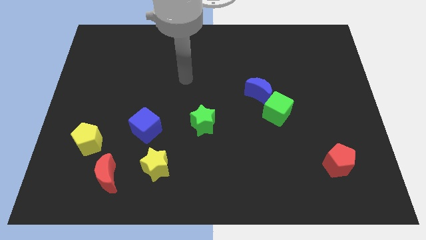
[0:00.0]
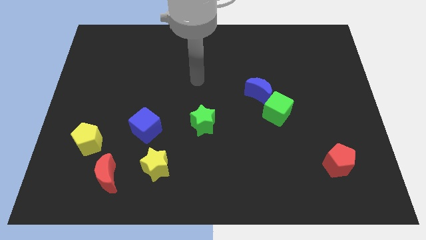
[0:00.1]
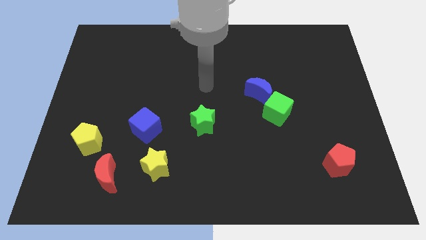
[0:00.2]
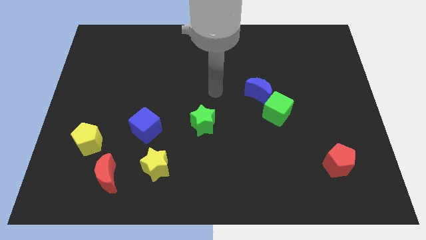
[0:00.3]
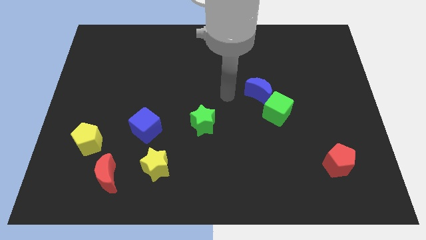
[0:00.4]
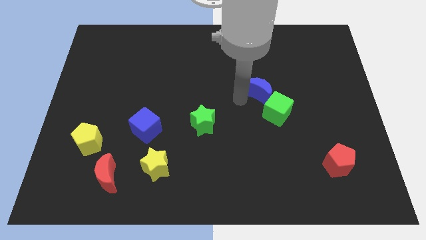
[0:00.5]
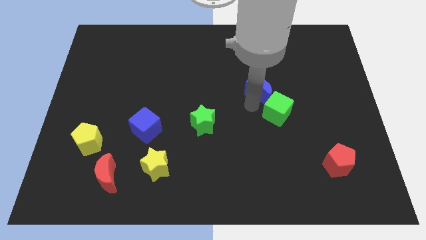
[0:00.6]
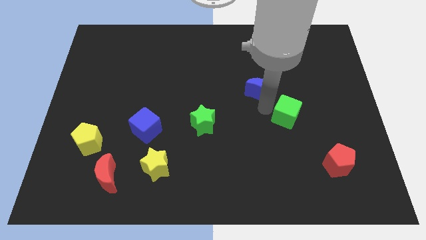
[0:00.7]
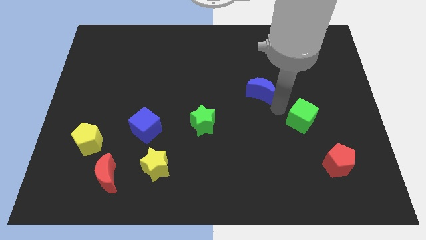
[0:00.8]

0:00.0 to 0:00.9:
separate the blue moon from the green cube

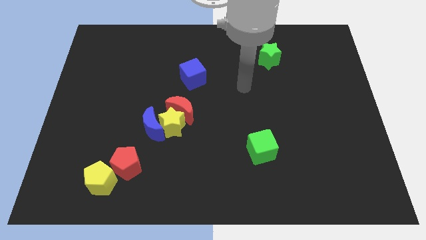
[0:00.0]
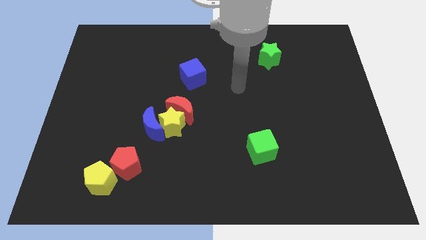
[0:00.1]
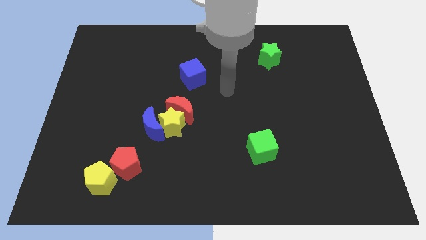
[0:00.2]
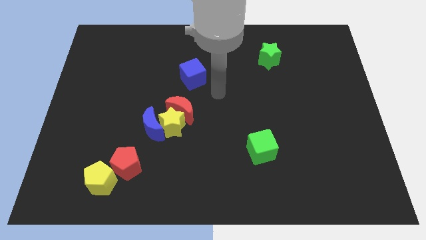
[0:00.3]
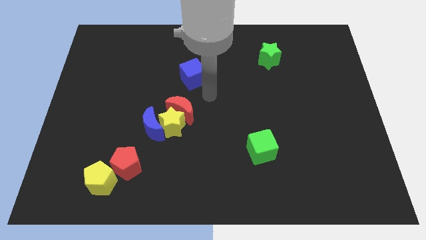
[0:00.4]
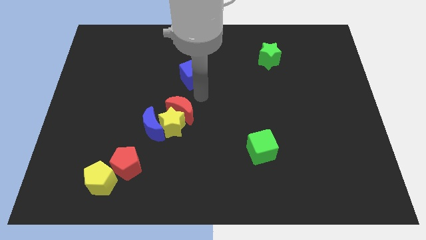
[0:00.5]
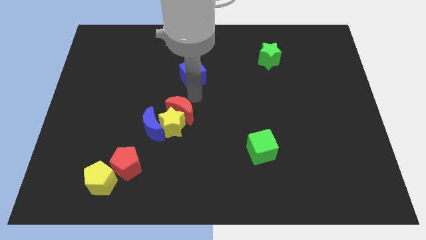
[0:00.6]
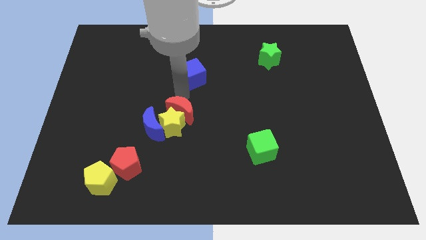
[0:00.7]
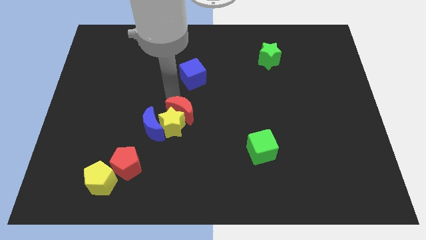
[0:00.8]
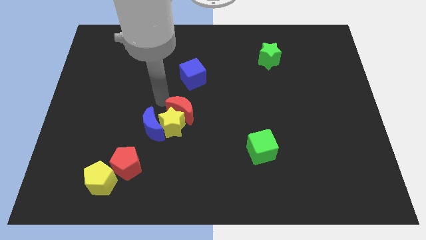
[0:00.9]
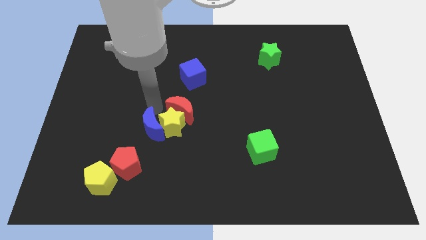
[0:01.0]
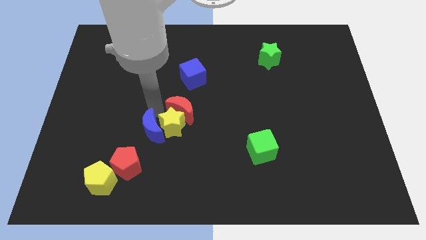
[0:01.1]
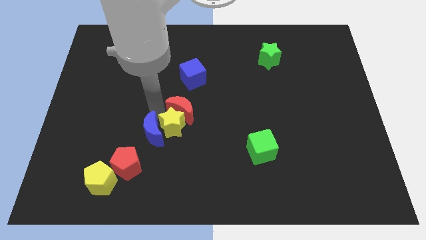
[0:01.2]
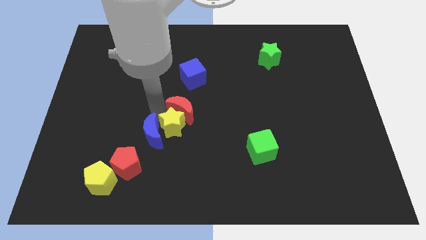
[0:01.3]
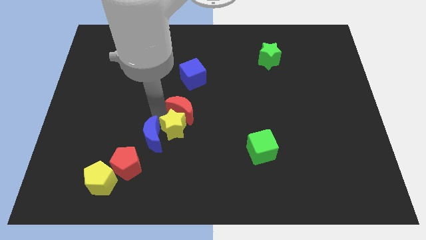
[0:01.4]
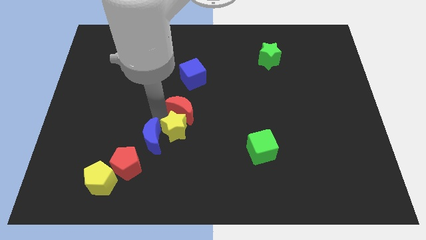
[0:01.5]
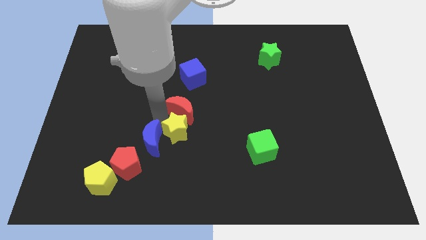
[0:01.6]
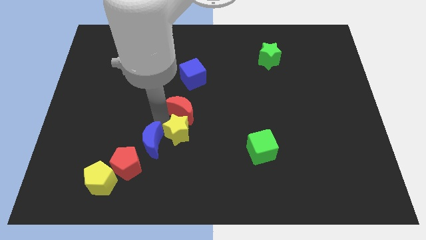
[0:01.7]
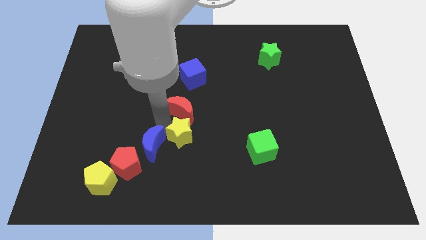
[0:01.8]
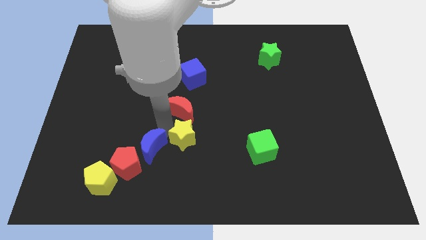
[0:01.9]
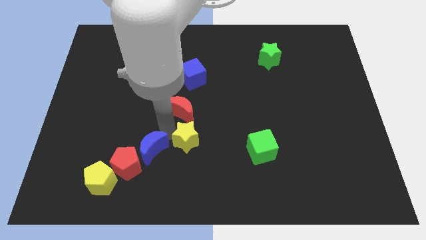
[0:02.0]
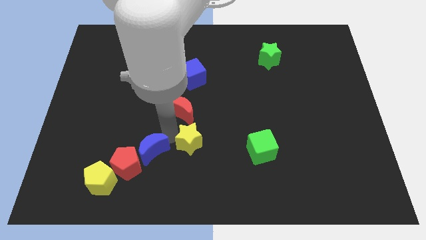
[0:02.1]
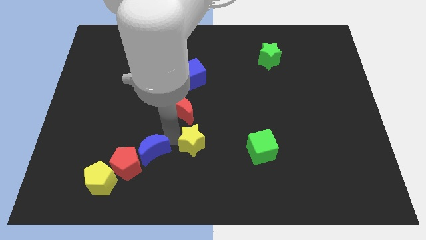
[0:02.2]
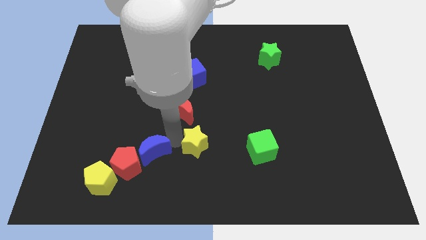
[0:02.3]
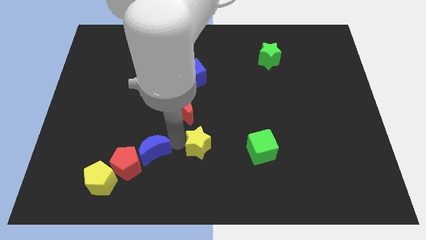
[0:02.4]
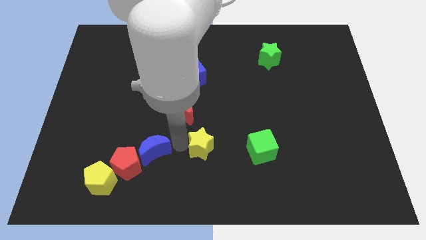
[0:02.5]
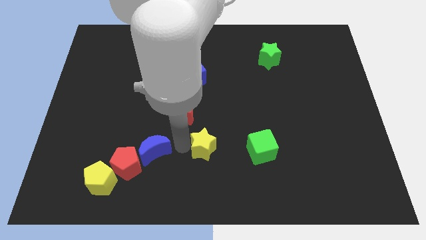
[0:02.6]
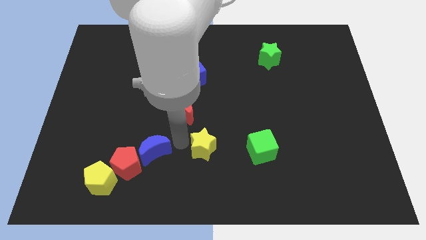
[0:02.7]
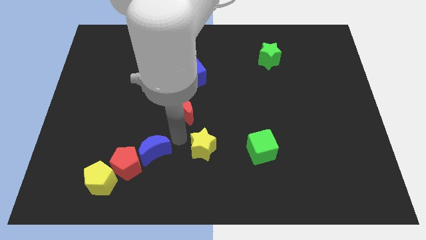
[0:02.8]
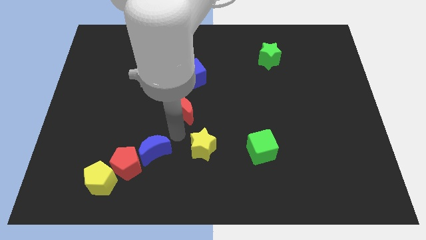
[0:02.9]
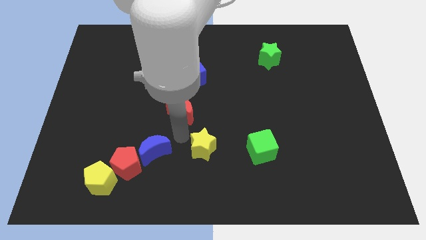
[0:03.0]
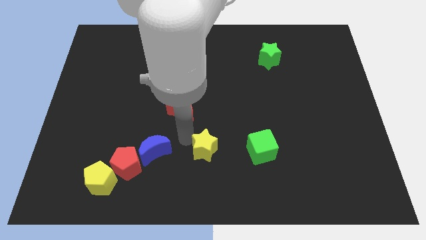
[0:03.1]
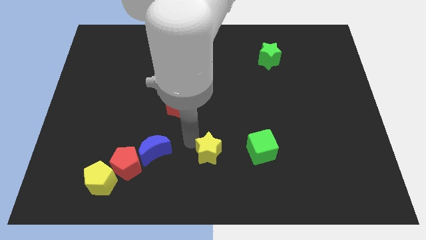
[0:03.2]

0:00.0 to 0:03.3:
pull the yellow star apart from the red moon and blue moon

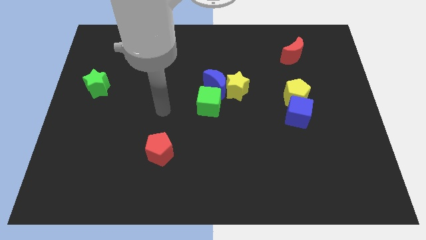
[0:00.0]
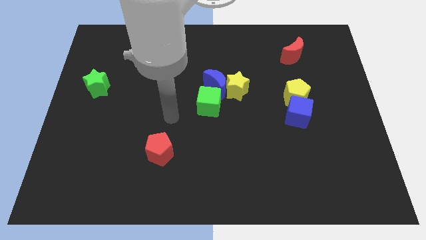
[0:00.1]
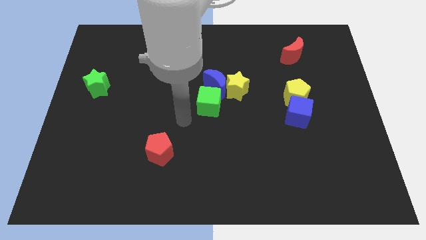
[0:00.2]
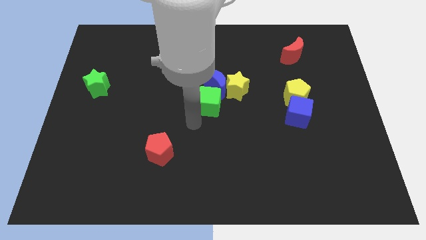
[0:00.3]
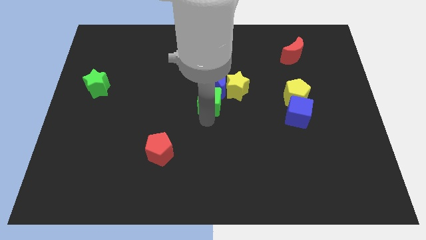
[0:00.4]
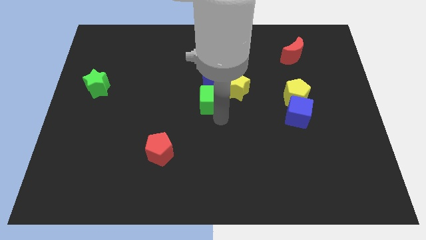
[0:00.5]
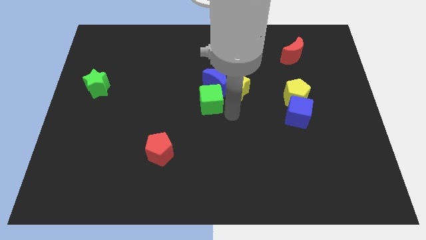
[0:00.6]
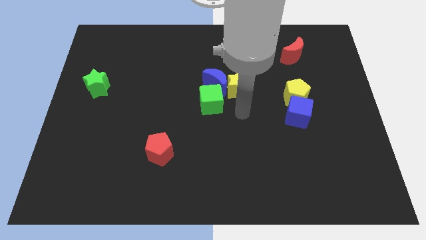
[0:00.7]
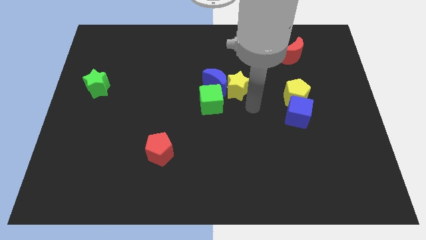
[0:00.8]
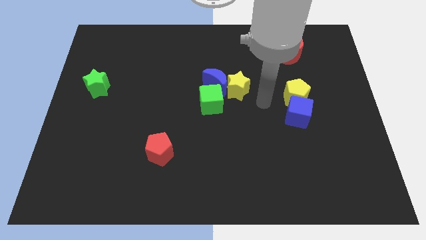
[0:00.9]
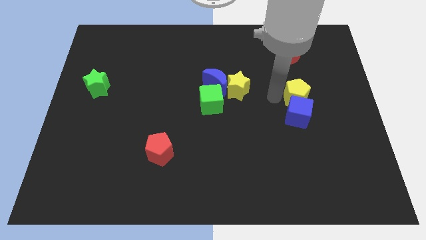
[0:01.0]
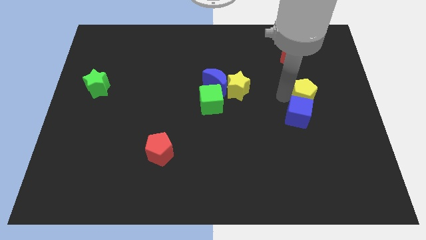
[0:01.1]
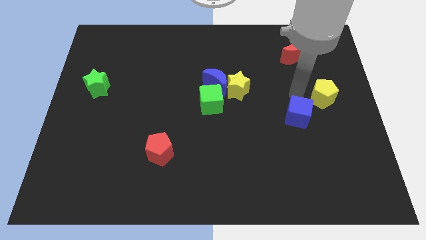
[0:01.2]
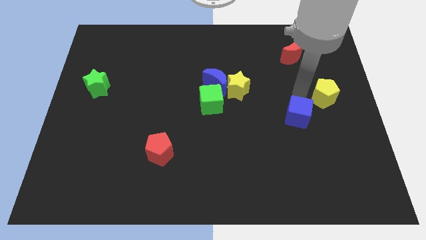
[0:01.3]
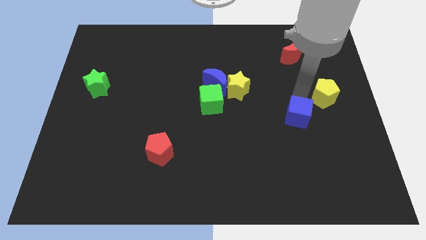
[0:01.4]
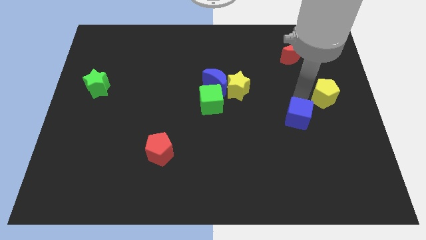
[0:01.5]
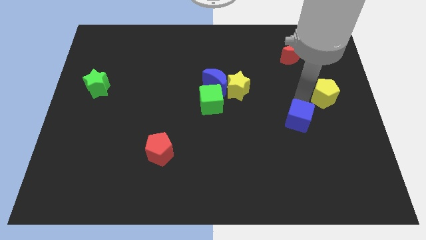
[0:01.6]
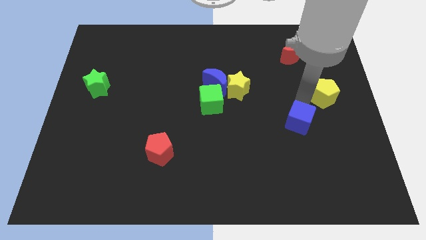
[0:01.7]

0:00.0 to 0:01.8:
separate the blue cube from the yellow pentagon

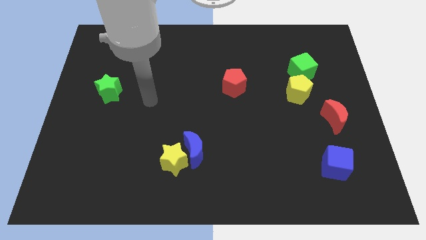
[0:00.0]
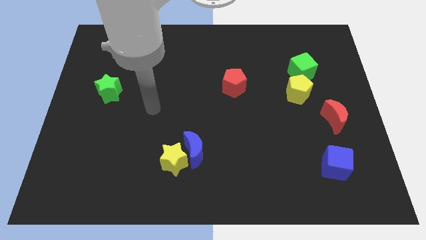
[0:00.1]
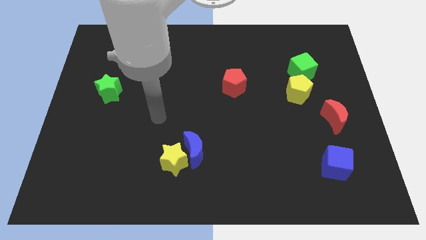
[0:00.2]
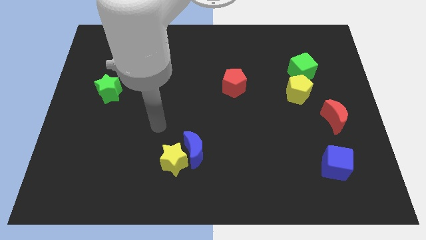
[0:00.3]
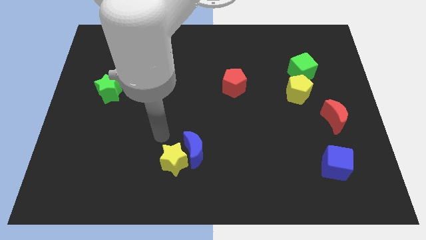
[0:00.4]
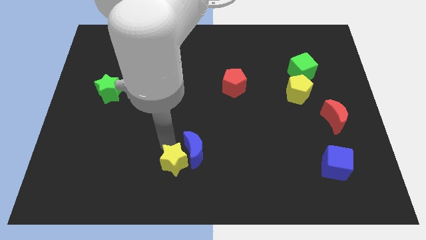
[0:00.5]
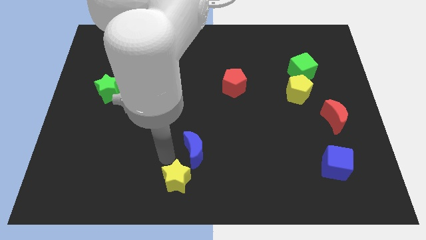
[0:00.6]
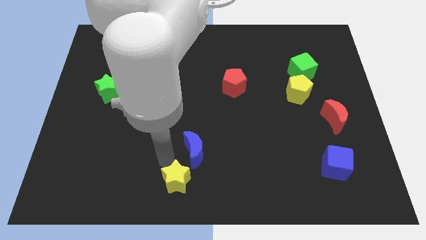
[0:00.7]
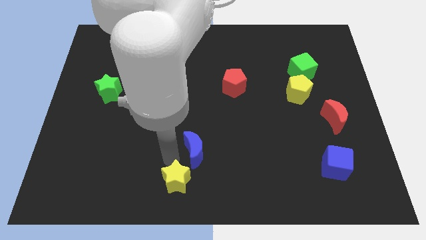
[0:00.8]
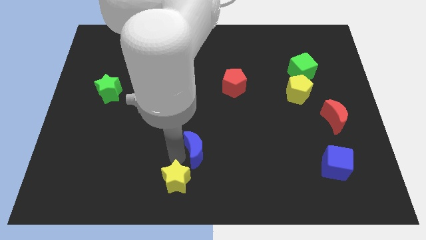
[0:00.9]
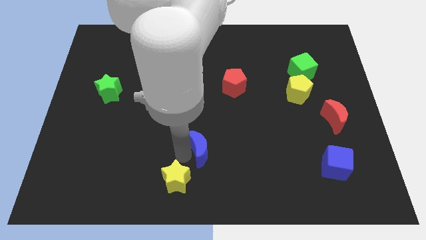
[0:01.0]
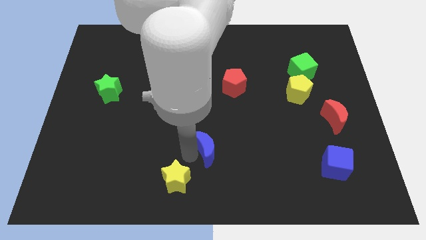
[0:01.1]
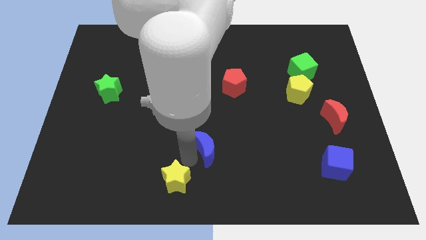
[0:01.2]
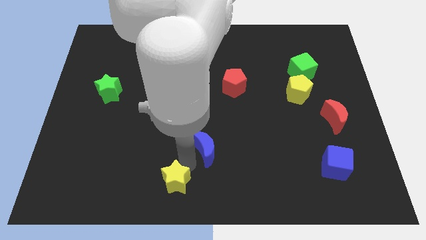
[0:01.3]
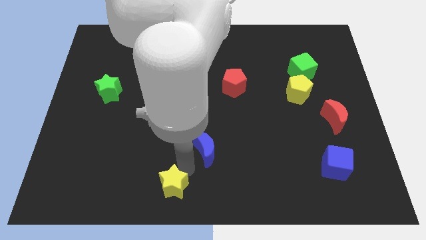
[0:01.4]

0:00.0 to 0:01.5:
separate the blue moon from the yellow star

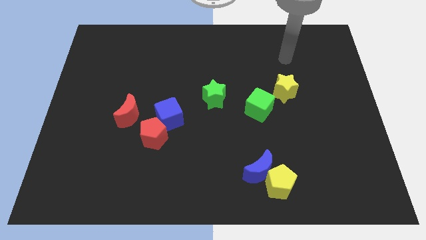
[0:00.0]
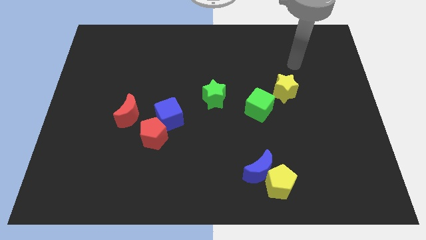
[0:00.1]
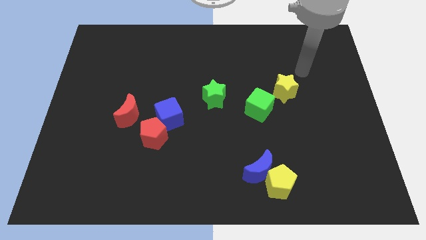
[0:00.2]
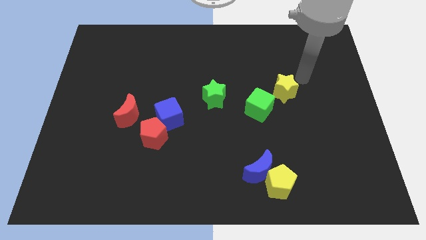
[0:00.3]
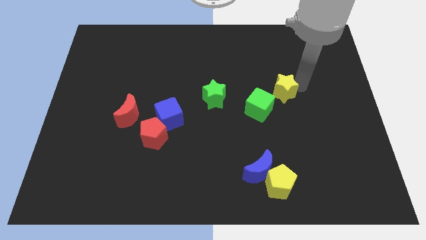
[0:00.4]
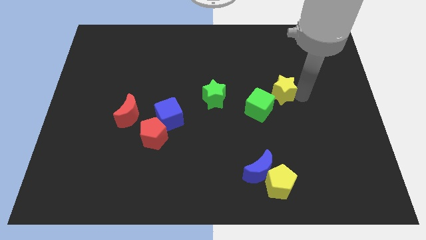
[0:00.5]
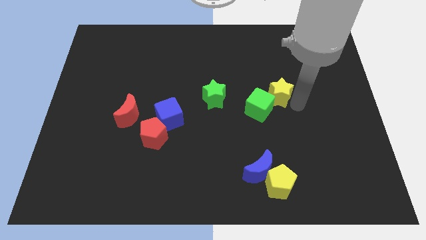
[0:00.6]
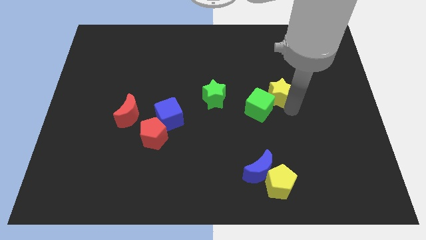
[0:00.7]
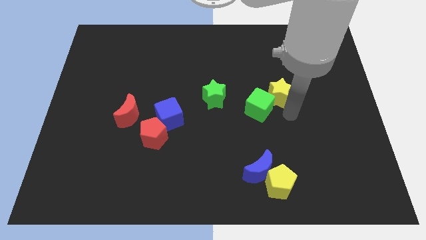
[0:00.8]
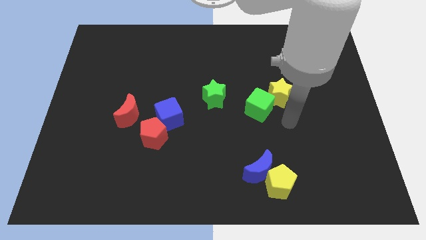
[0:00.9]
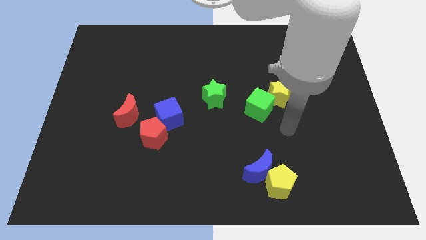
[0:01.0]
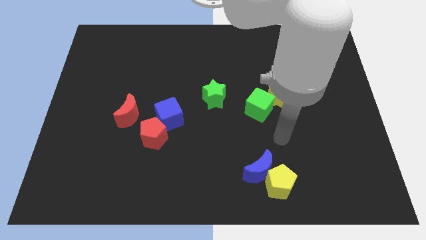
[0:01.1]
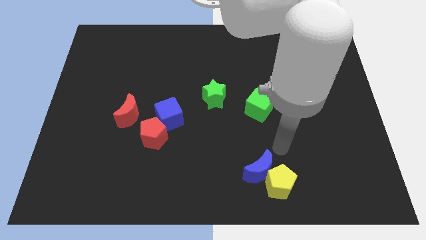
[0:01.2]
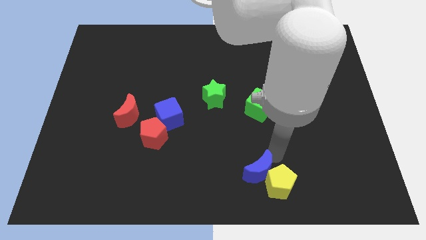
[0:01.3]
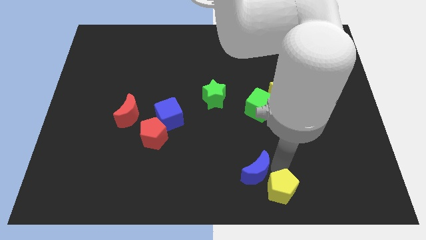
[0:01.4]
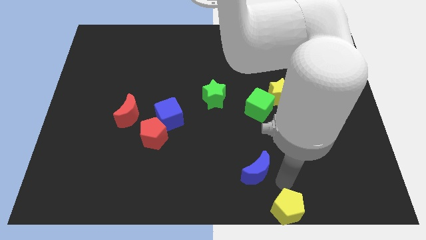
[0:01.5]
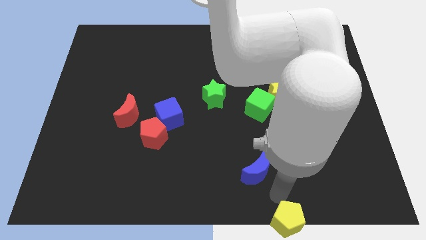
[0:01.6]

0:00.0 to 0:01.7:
separate the blue moon from the yellow pentagon

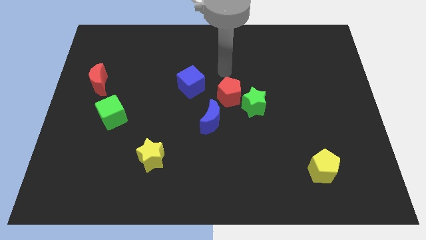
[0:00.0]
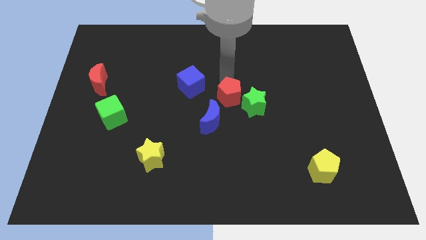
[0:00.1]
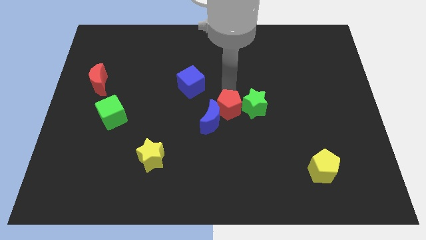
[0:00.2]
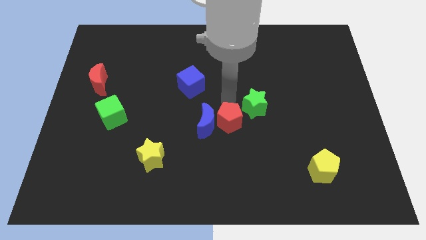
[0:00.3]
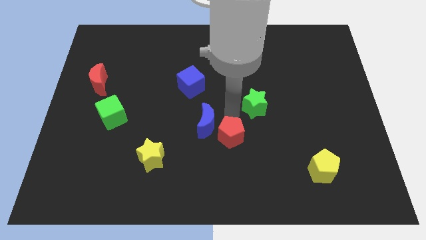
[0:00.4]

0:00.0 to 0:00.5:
separate the green star from the red pentagon
